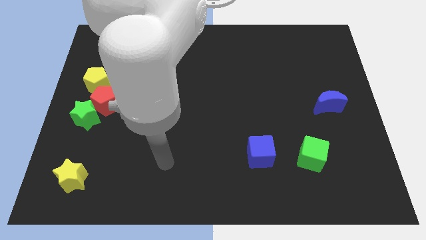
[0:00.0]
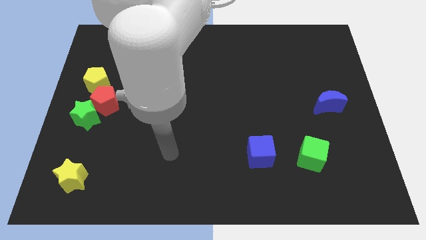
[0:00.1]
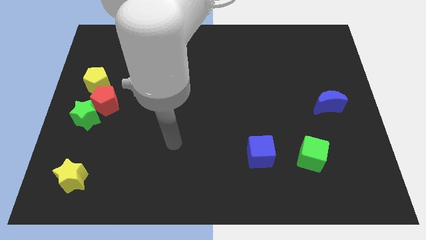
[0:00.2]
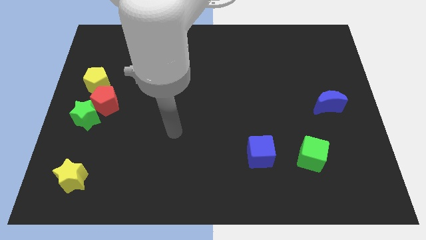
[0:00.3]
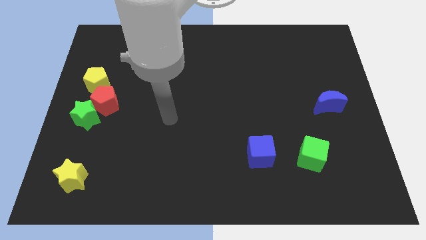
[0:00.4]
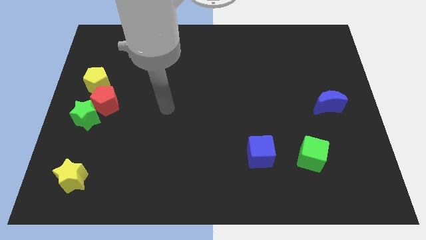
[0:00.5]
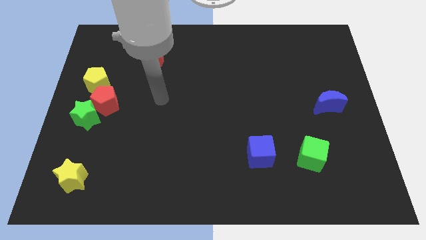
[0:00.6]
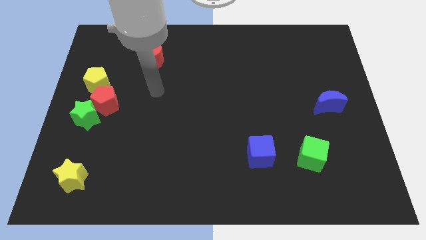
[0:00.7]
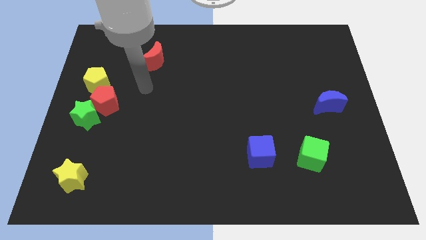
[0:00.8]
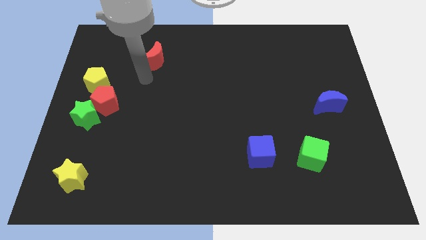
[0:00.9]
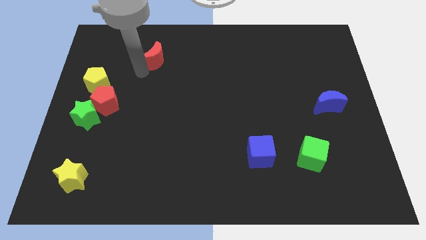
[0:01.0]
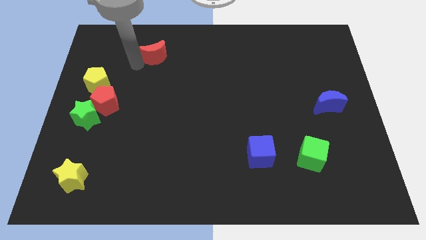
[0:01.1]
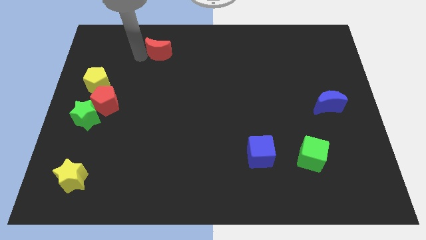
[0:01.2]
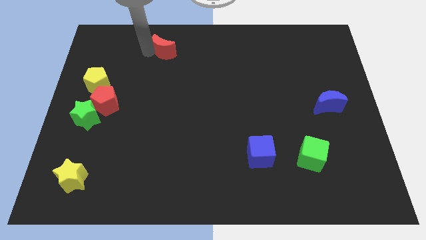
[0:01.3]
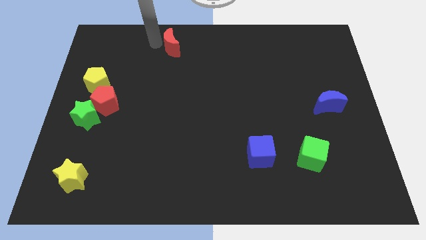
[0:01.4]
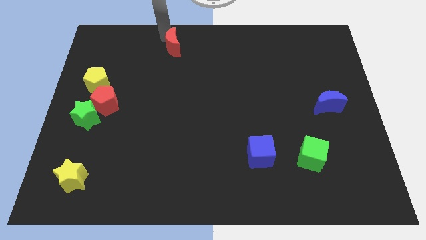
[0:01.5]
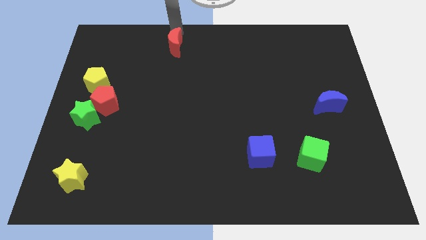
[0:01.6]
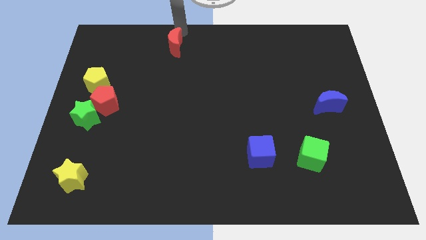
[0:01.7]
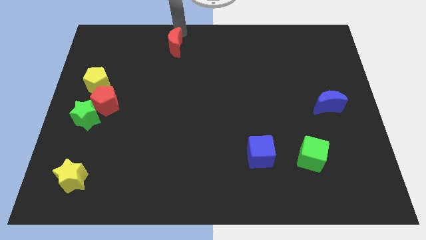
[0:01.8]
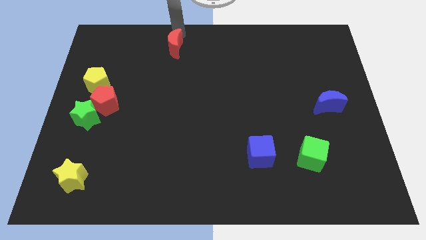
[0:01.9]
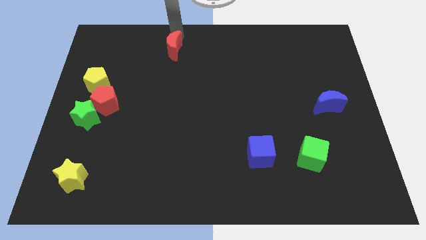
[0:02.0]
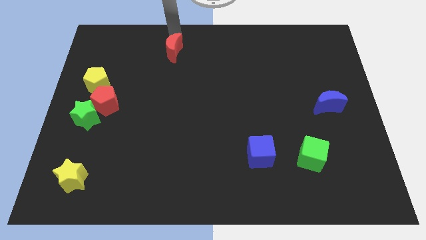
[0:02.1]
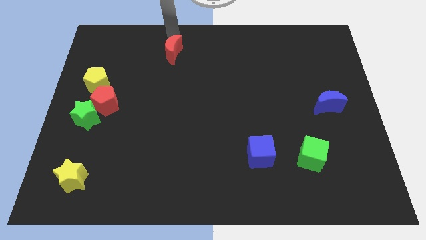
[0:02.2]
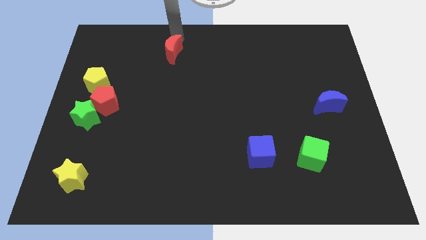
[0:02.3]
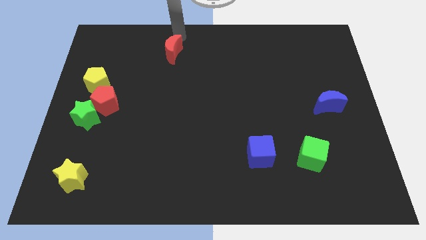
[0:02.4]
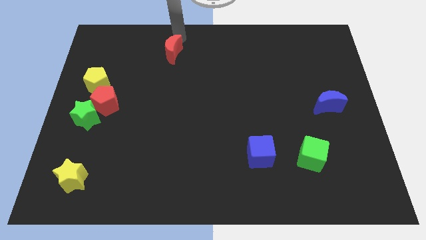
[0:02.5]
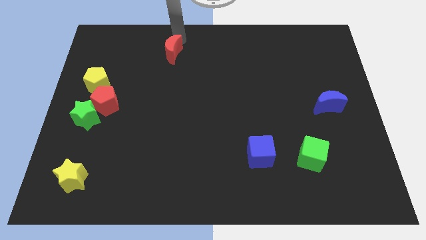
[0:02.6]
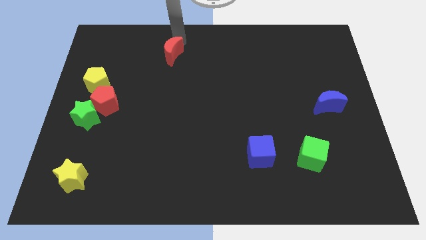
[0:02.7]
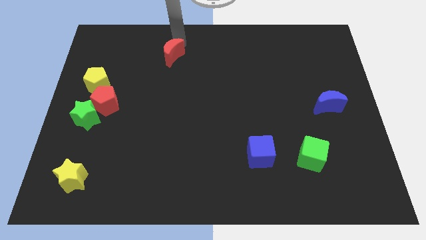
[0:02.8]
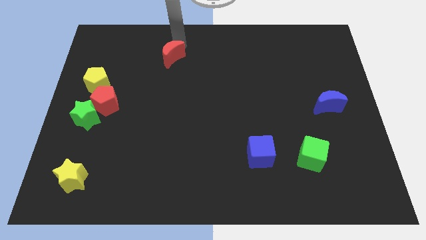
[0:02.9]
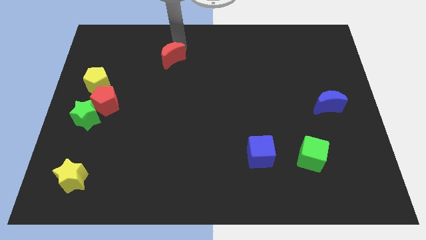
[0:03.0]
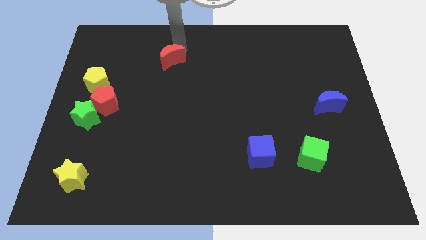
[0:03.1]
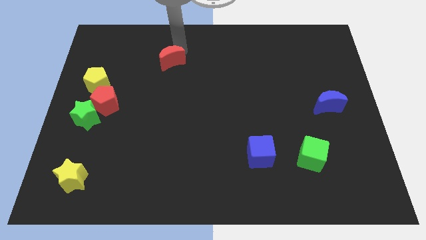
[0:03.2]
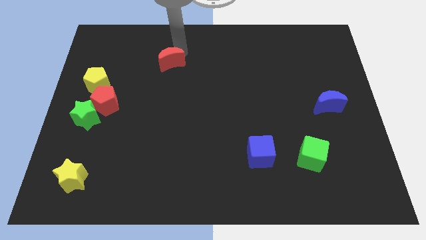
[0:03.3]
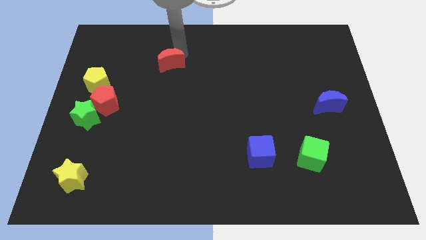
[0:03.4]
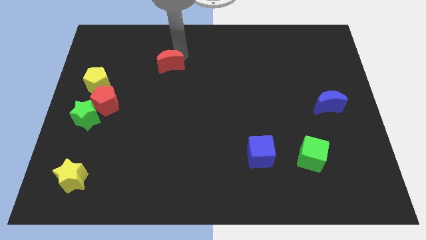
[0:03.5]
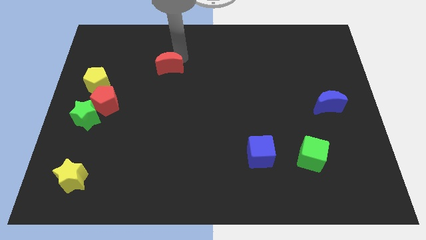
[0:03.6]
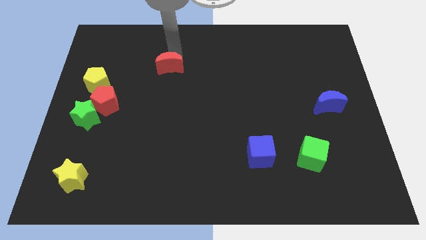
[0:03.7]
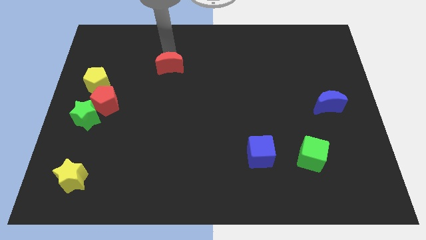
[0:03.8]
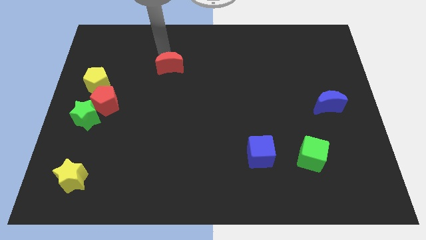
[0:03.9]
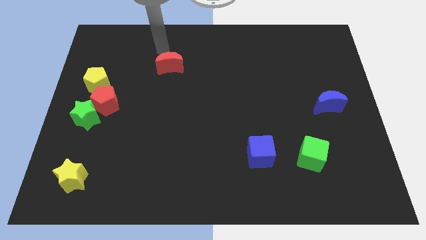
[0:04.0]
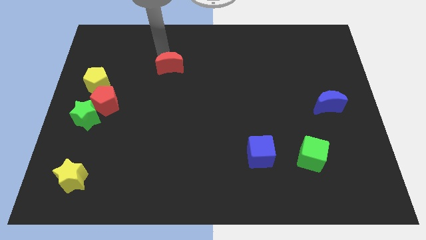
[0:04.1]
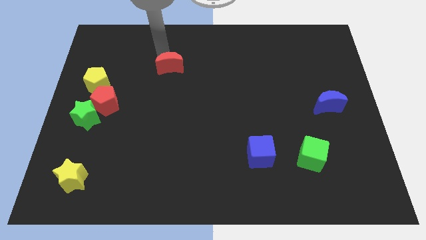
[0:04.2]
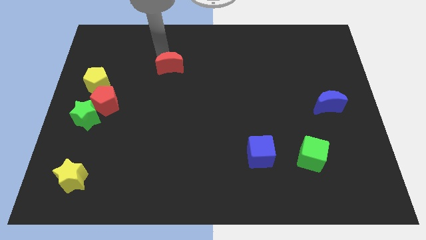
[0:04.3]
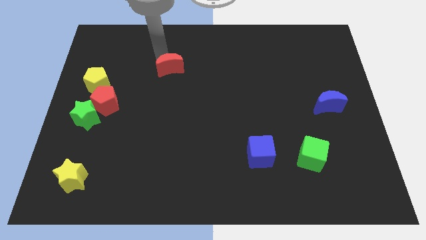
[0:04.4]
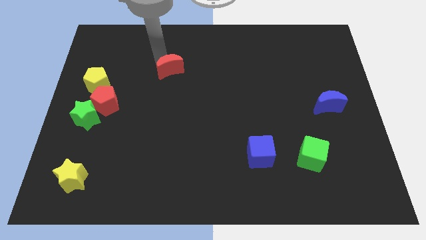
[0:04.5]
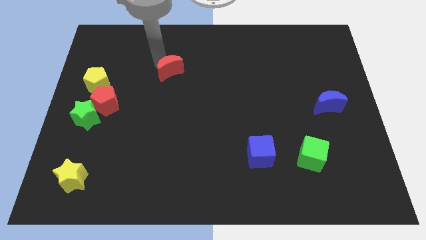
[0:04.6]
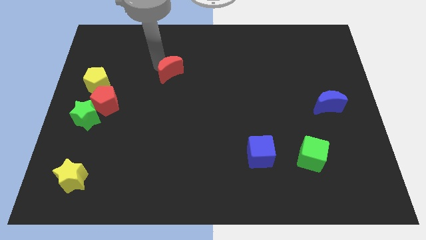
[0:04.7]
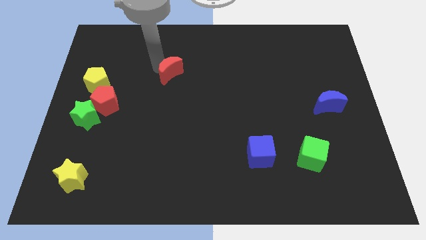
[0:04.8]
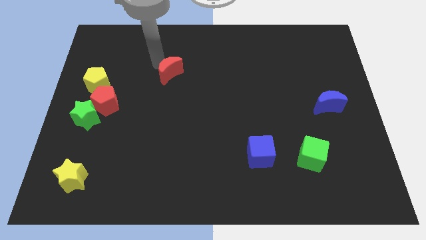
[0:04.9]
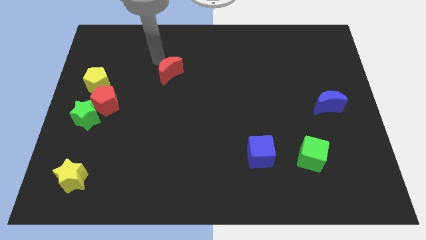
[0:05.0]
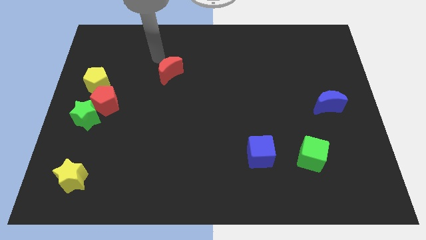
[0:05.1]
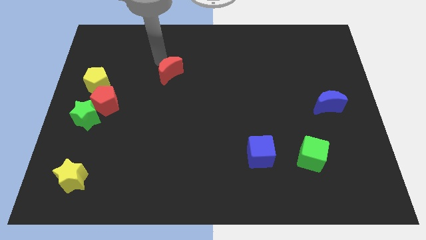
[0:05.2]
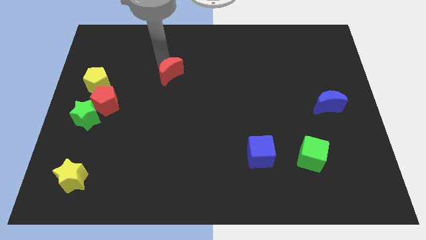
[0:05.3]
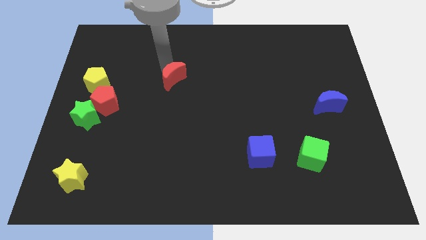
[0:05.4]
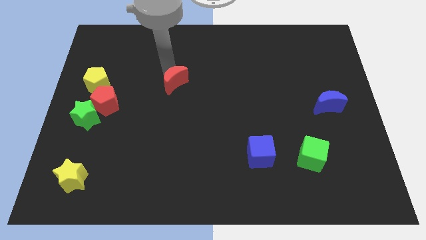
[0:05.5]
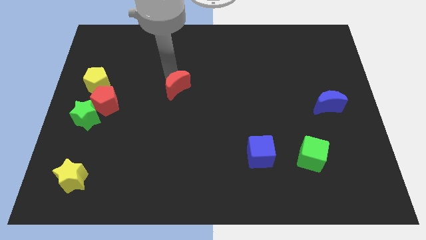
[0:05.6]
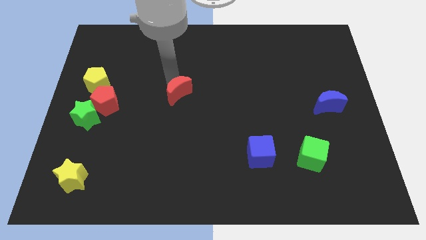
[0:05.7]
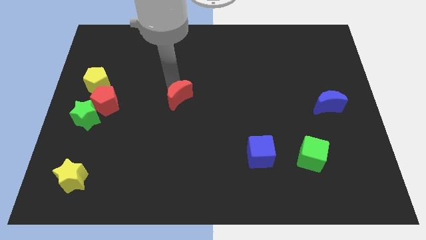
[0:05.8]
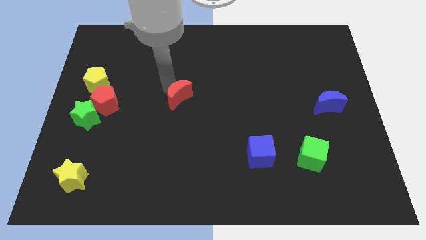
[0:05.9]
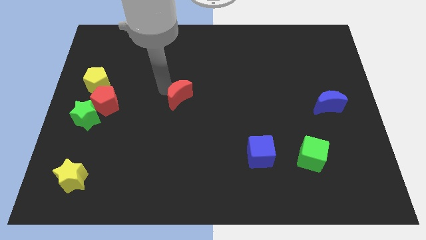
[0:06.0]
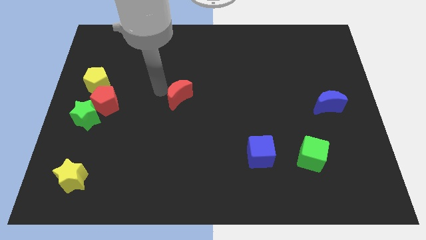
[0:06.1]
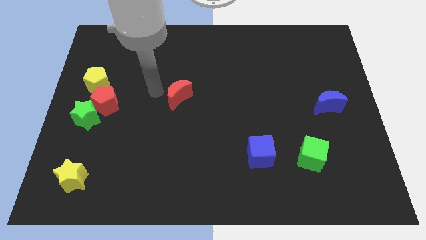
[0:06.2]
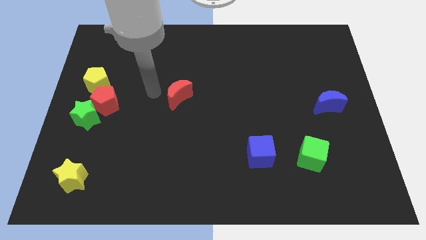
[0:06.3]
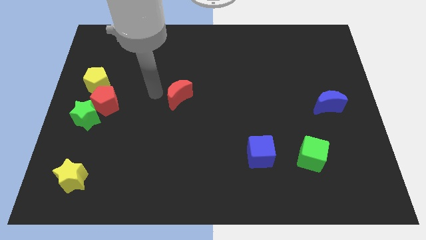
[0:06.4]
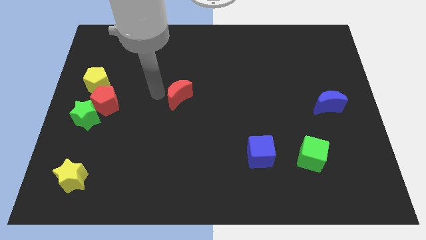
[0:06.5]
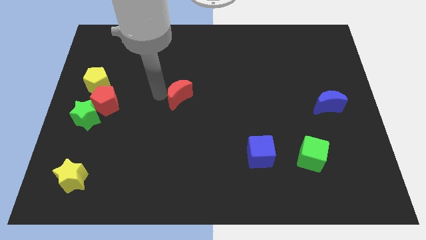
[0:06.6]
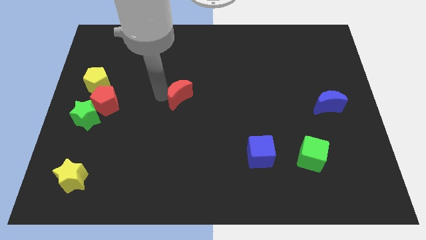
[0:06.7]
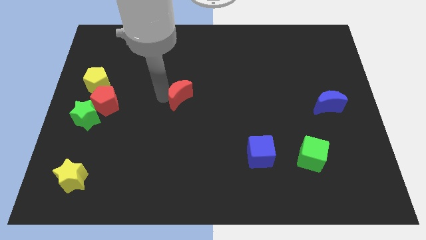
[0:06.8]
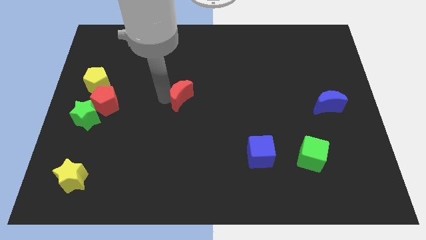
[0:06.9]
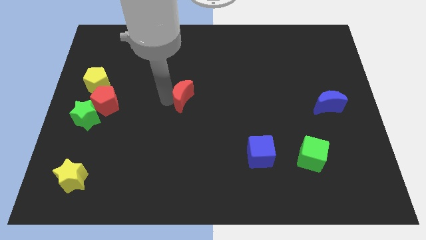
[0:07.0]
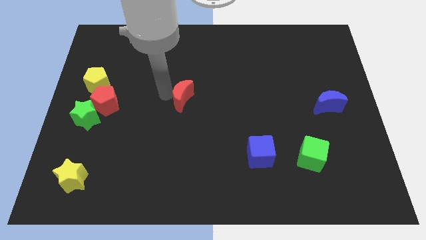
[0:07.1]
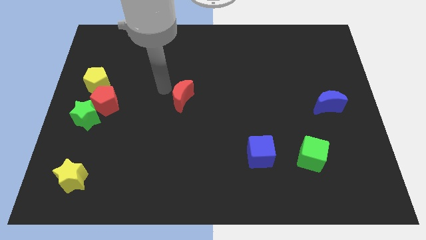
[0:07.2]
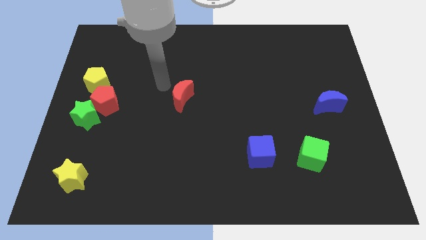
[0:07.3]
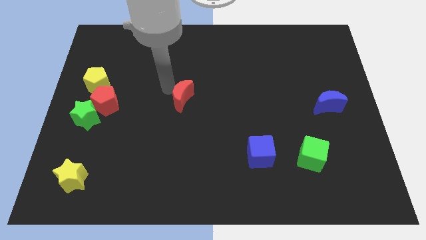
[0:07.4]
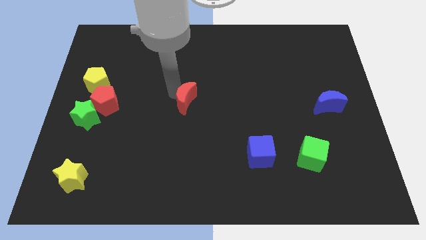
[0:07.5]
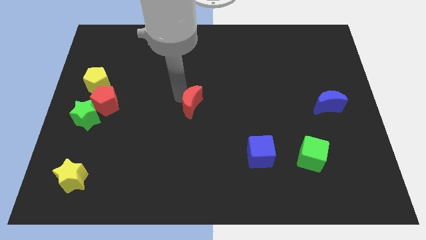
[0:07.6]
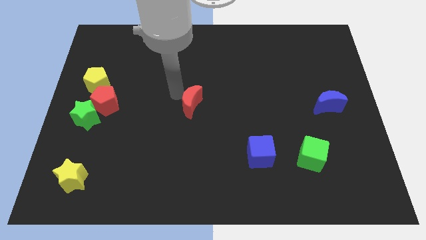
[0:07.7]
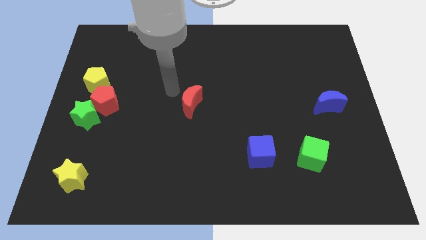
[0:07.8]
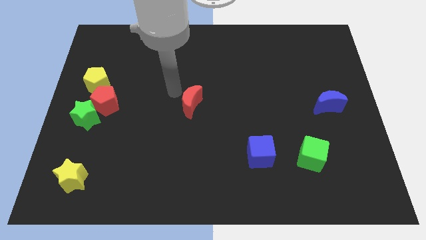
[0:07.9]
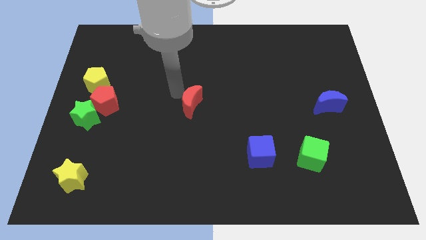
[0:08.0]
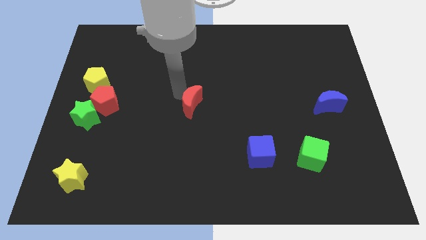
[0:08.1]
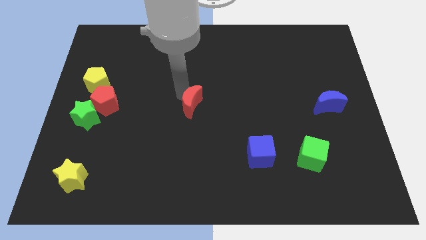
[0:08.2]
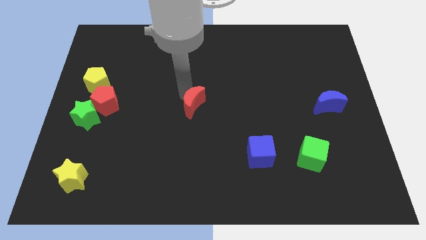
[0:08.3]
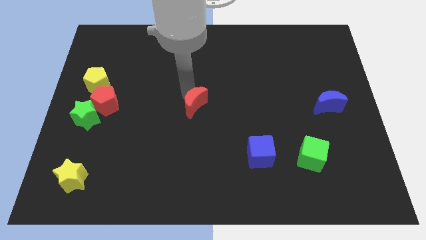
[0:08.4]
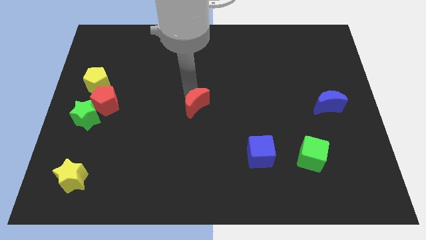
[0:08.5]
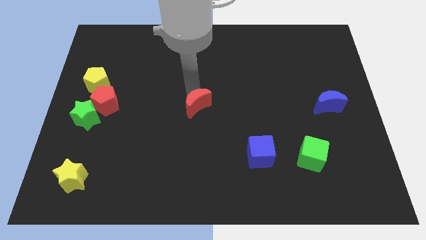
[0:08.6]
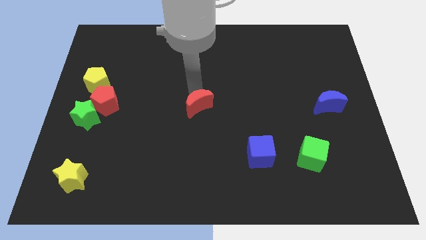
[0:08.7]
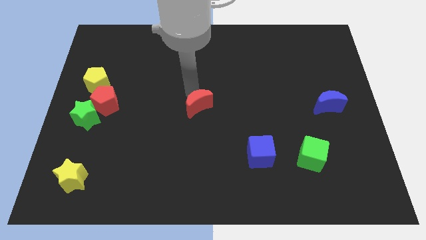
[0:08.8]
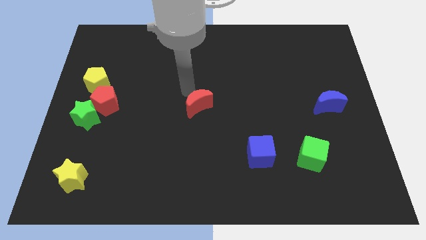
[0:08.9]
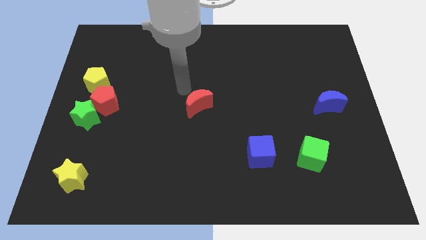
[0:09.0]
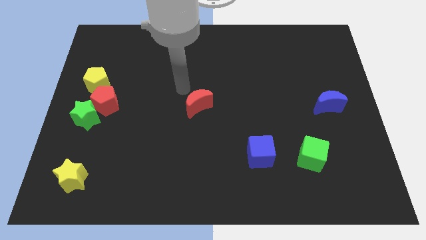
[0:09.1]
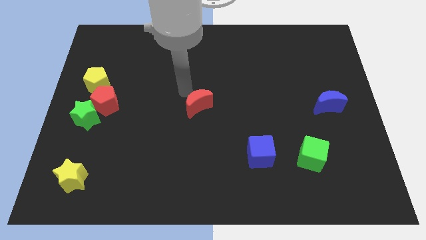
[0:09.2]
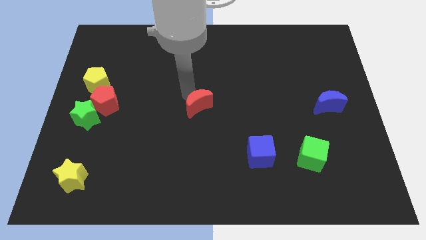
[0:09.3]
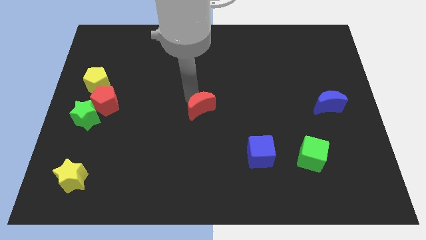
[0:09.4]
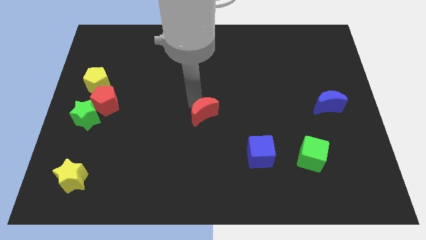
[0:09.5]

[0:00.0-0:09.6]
move the red moon diagonally downwards and right
